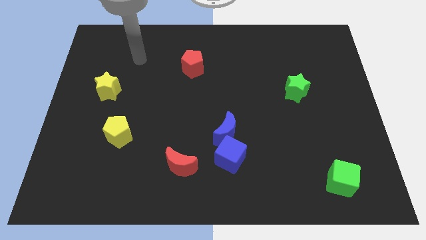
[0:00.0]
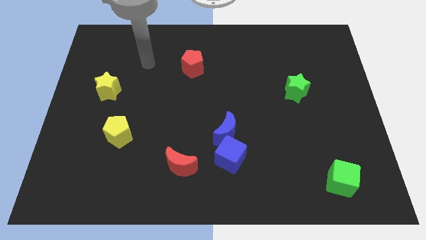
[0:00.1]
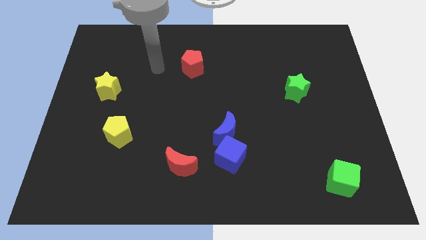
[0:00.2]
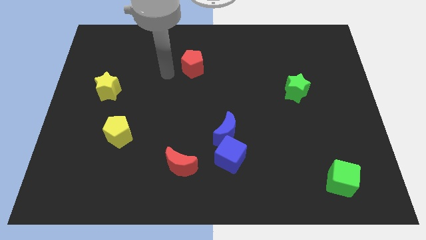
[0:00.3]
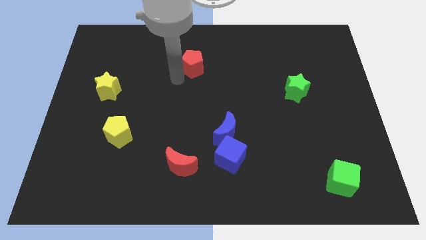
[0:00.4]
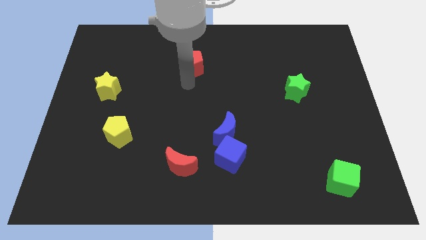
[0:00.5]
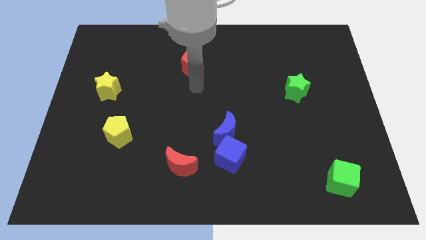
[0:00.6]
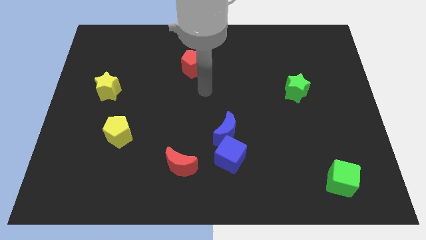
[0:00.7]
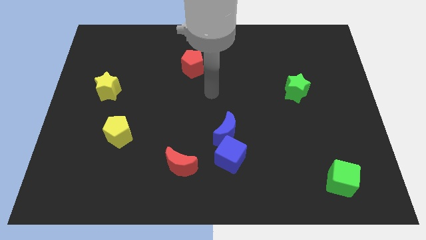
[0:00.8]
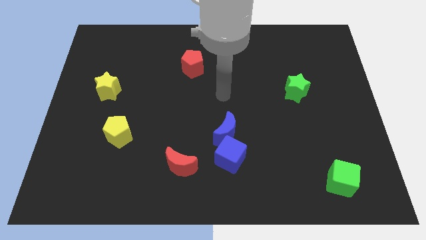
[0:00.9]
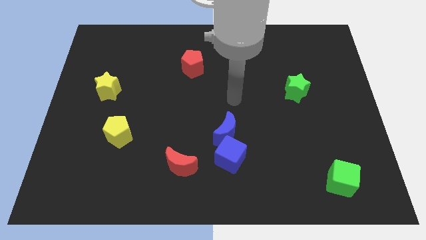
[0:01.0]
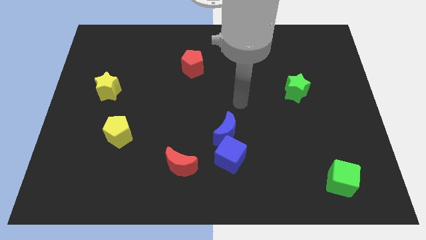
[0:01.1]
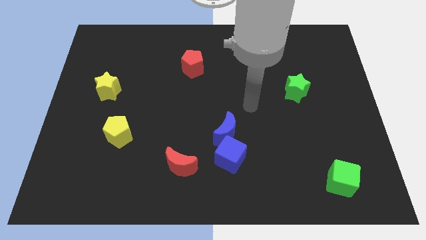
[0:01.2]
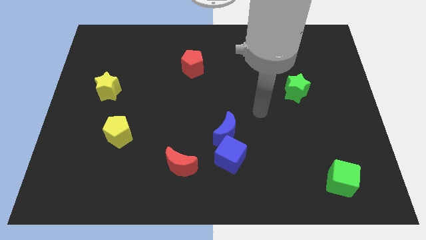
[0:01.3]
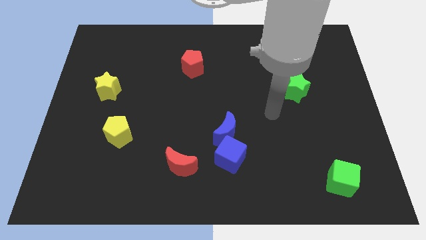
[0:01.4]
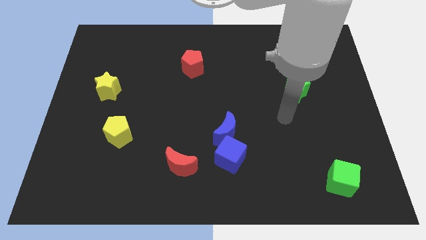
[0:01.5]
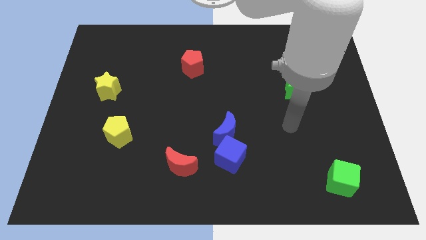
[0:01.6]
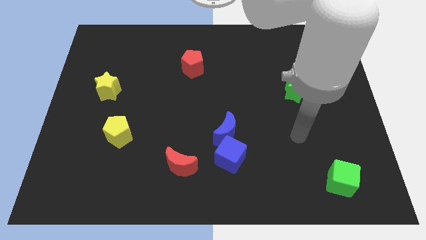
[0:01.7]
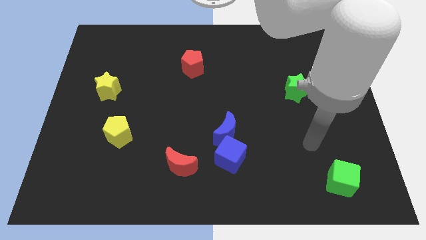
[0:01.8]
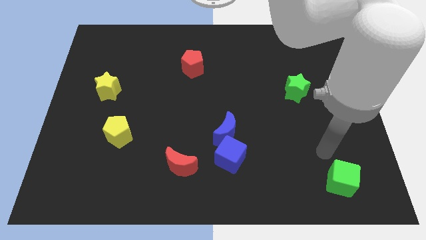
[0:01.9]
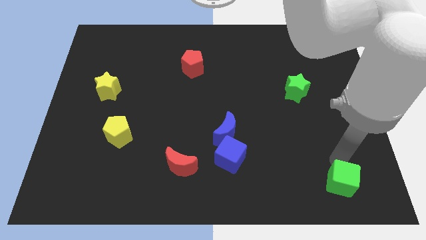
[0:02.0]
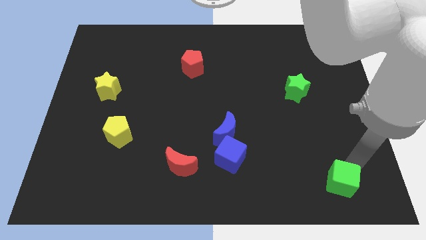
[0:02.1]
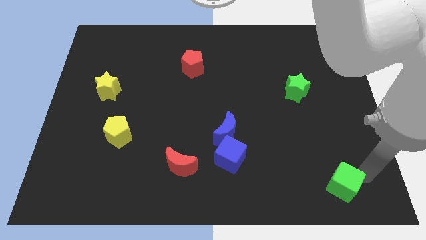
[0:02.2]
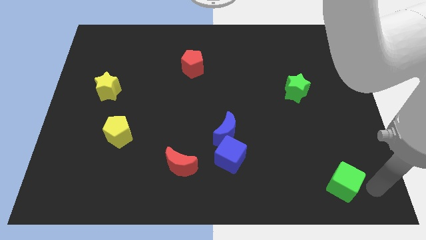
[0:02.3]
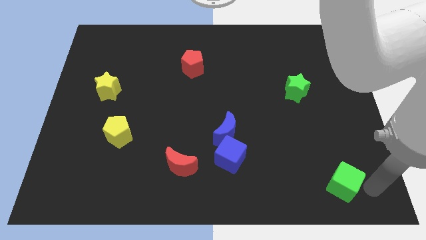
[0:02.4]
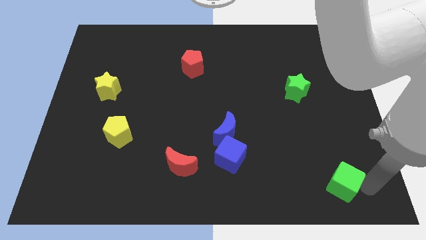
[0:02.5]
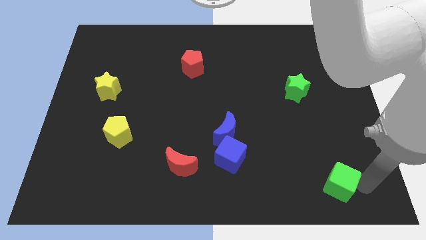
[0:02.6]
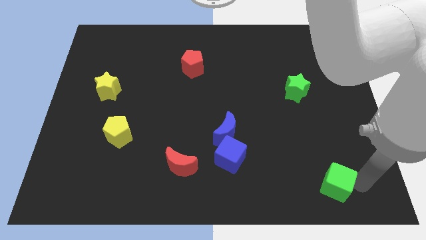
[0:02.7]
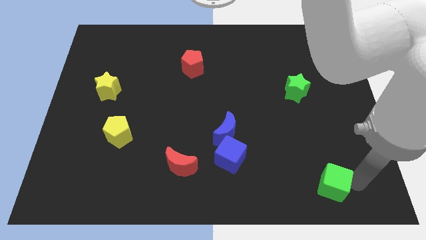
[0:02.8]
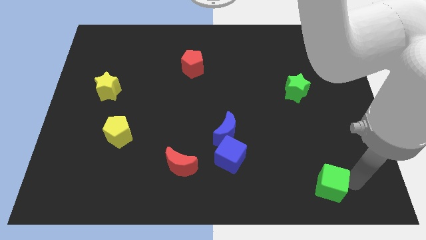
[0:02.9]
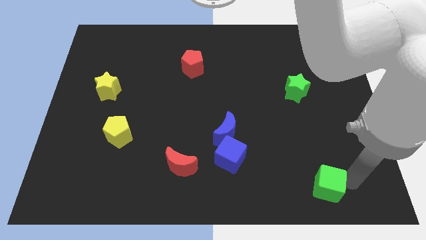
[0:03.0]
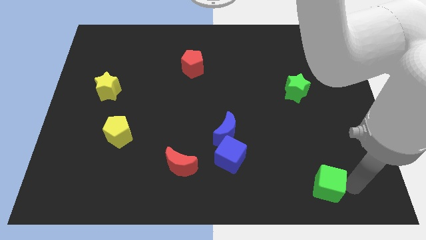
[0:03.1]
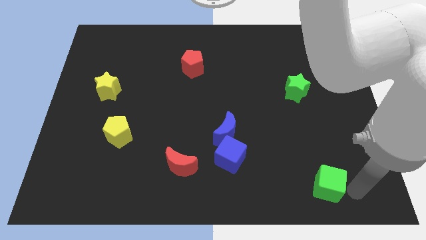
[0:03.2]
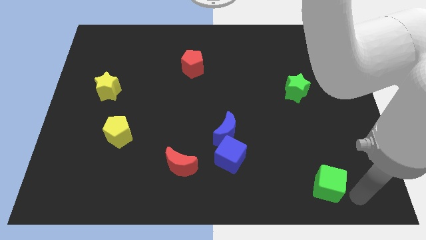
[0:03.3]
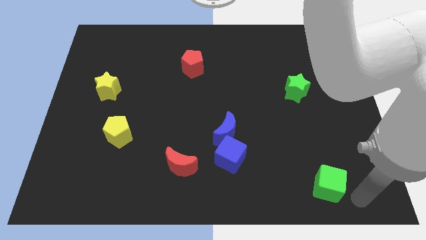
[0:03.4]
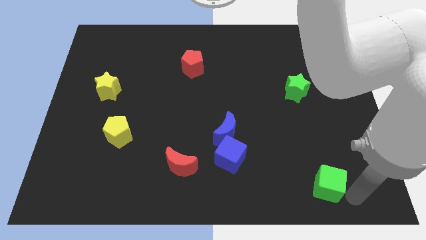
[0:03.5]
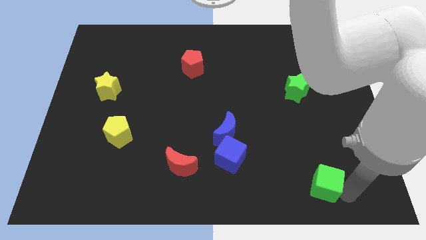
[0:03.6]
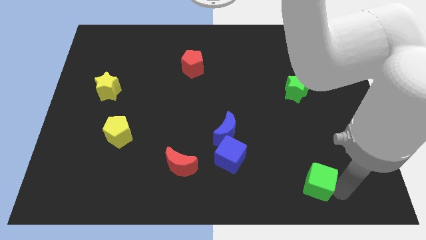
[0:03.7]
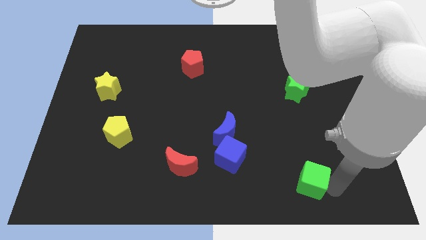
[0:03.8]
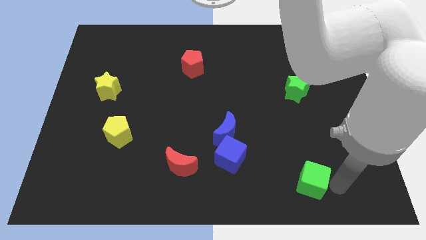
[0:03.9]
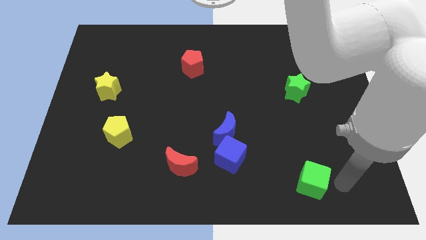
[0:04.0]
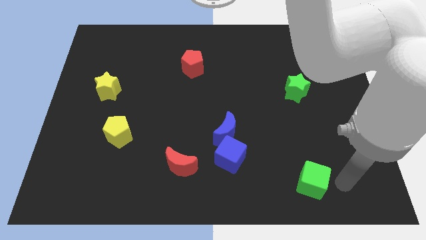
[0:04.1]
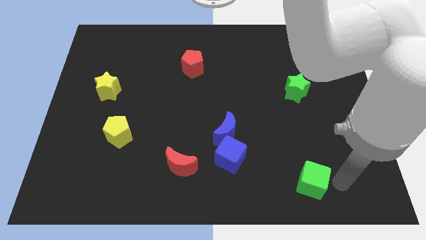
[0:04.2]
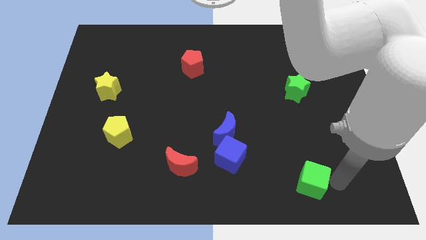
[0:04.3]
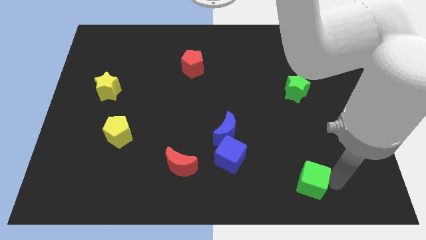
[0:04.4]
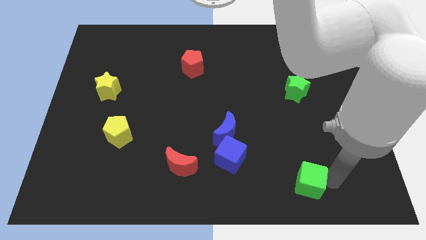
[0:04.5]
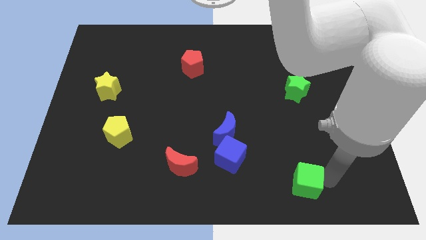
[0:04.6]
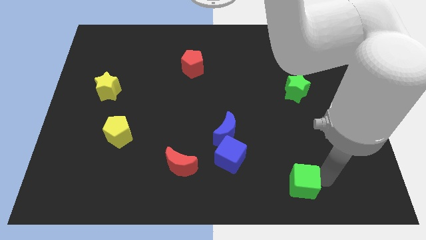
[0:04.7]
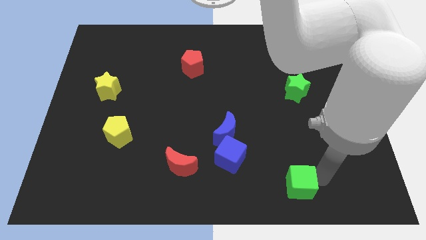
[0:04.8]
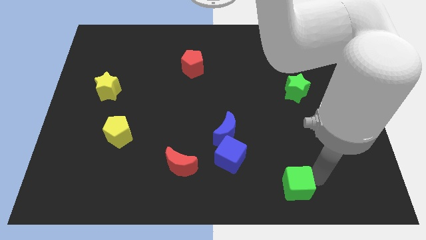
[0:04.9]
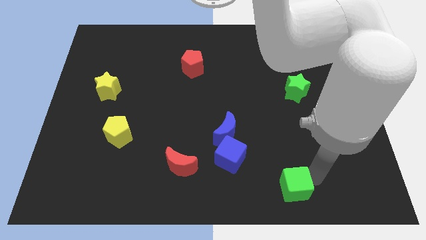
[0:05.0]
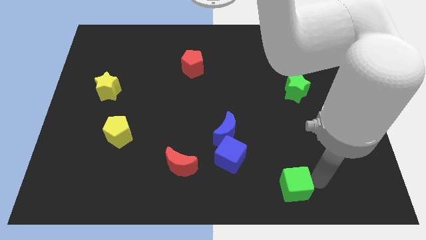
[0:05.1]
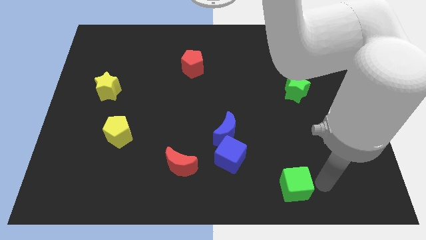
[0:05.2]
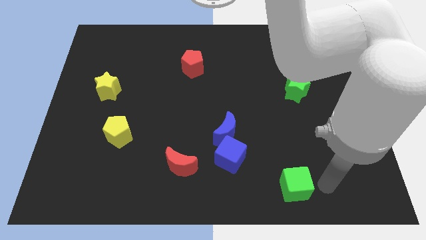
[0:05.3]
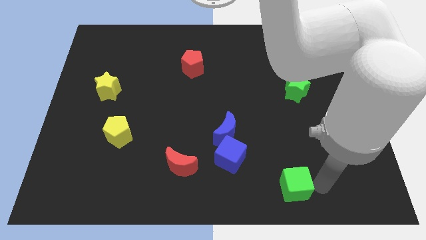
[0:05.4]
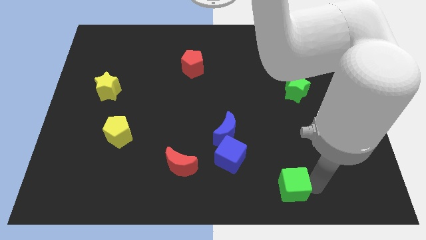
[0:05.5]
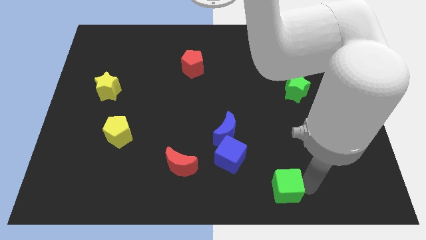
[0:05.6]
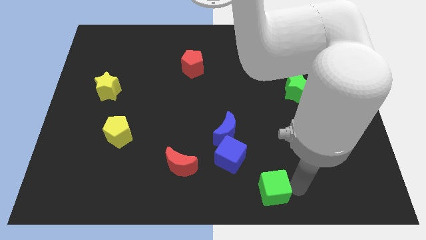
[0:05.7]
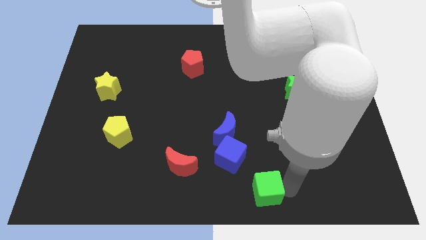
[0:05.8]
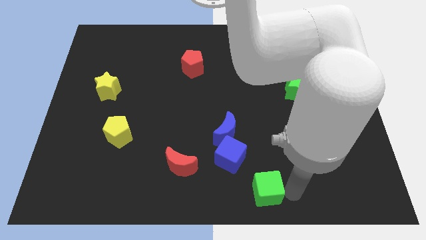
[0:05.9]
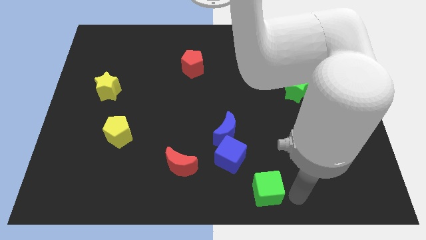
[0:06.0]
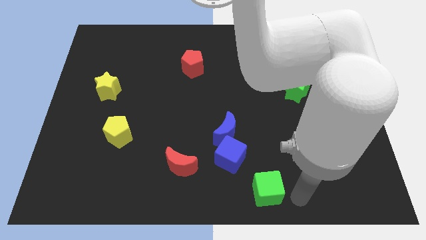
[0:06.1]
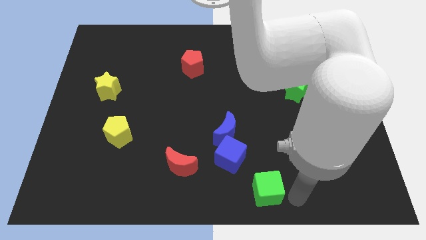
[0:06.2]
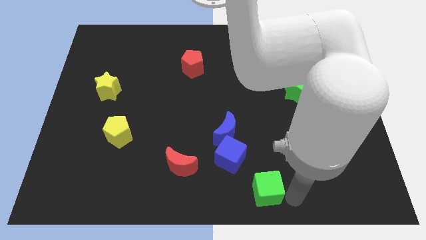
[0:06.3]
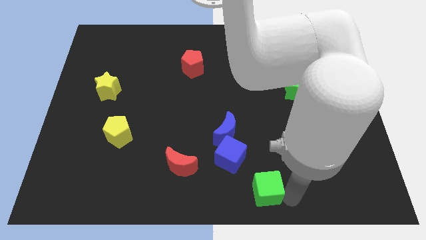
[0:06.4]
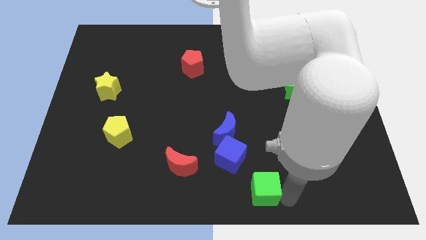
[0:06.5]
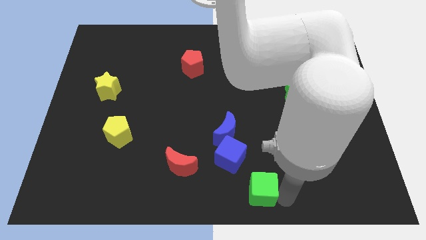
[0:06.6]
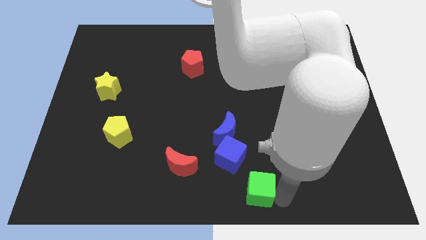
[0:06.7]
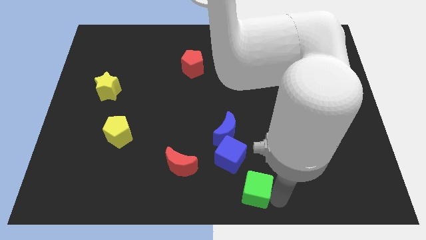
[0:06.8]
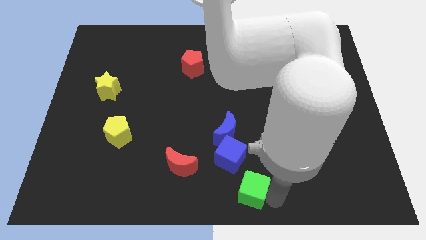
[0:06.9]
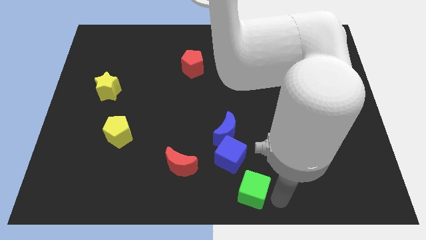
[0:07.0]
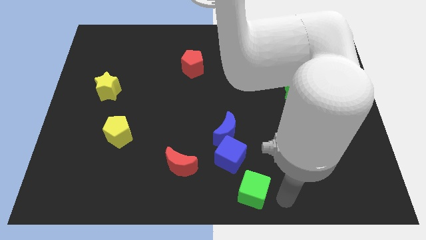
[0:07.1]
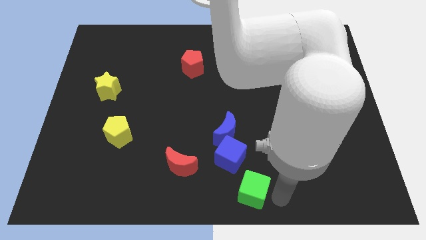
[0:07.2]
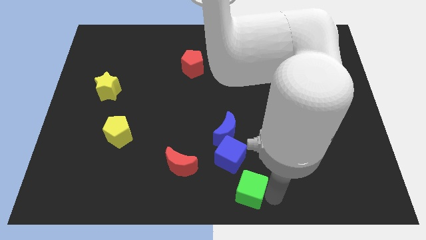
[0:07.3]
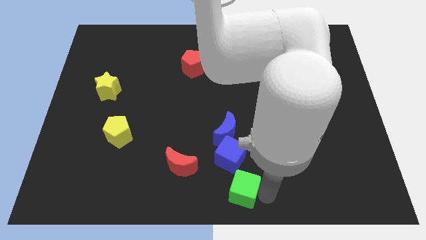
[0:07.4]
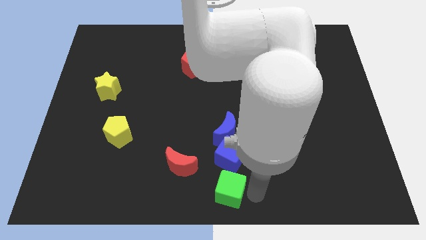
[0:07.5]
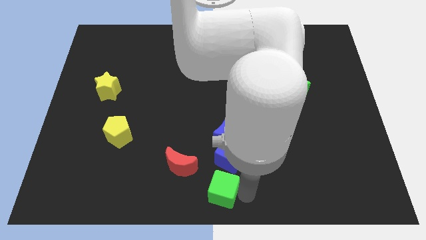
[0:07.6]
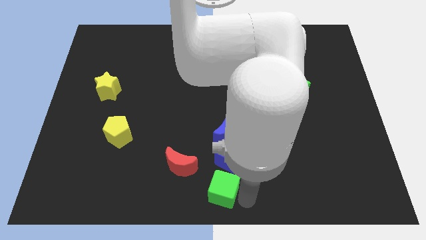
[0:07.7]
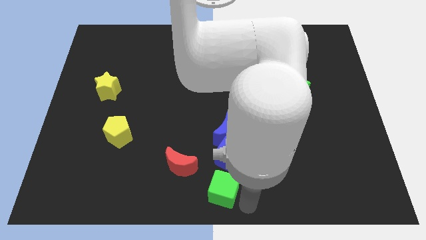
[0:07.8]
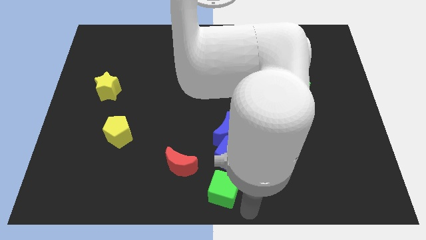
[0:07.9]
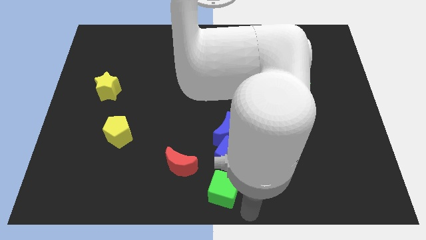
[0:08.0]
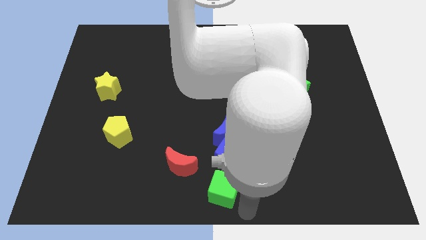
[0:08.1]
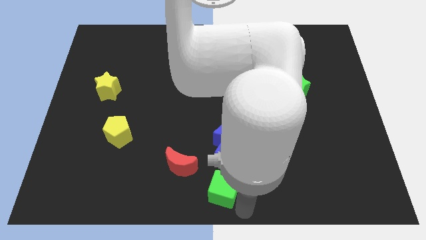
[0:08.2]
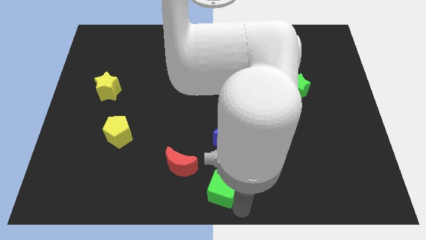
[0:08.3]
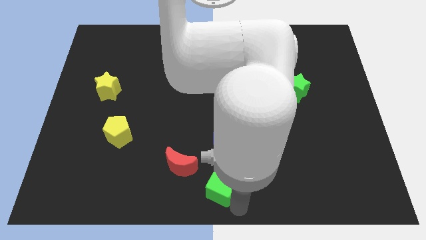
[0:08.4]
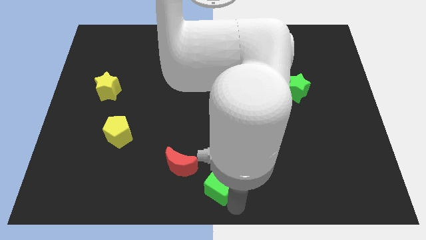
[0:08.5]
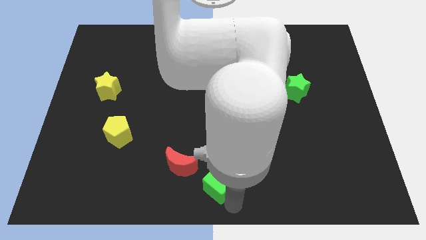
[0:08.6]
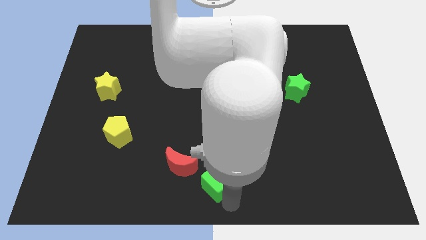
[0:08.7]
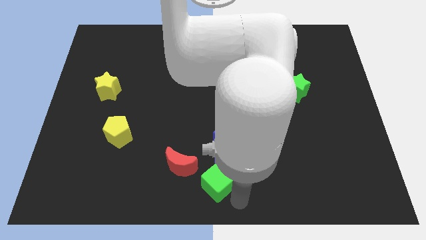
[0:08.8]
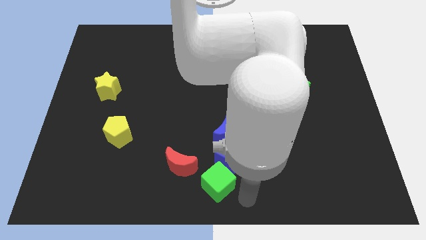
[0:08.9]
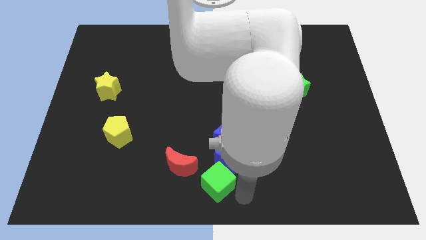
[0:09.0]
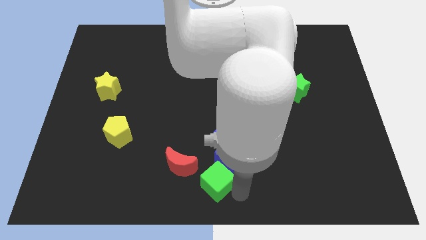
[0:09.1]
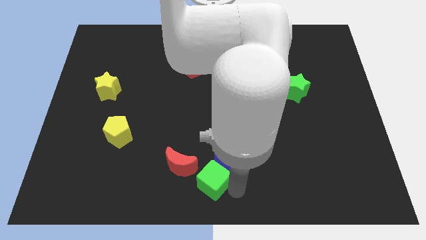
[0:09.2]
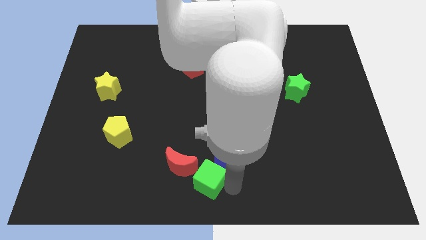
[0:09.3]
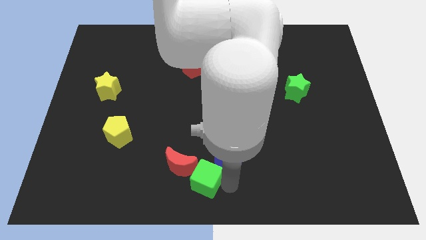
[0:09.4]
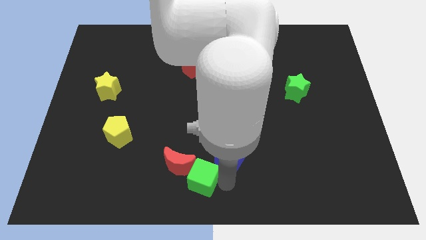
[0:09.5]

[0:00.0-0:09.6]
slide the green cube towards the red moon
